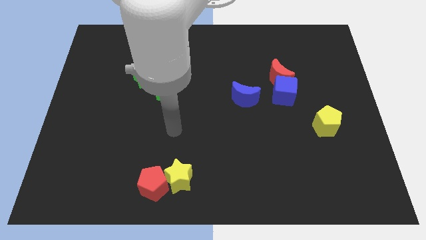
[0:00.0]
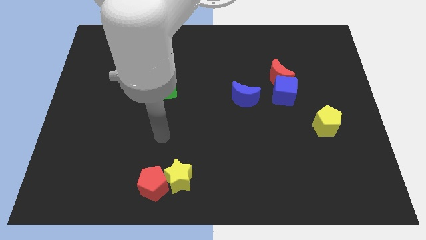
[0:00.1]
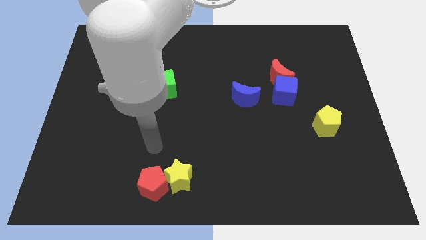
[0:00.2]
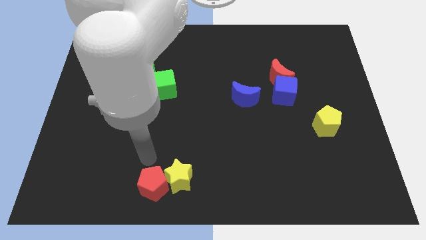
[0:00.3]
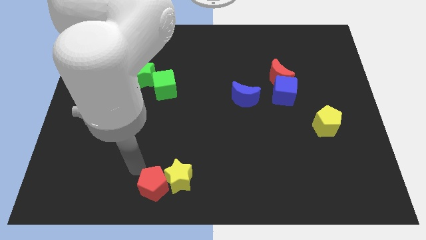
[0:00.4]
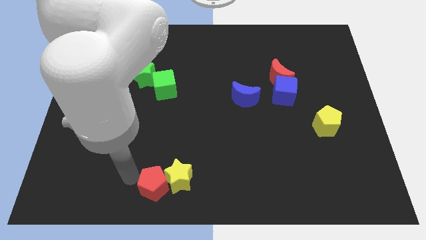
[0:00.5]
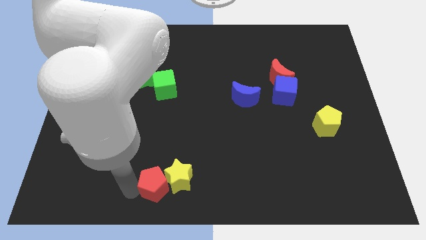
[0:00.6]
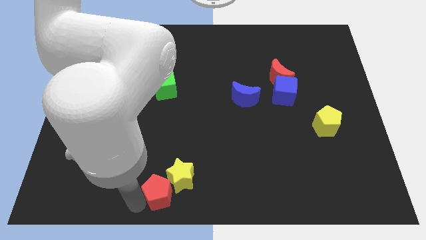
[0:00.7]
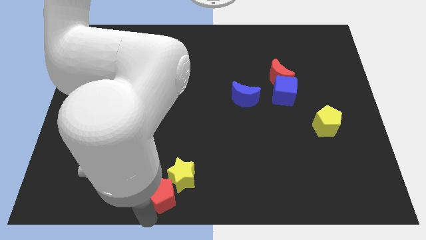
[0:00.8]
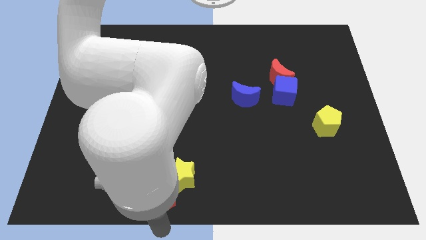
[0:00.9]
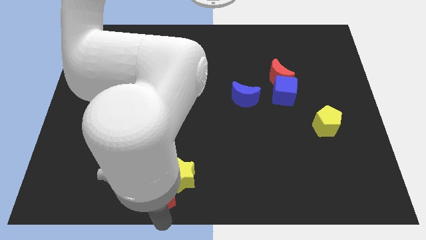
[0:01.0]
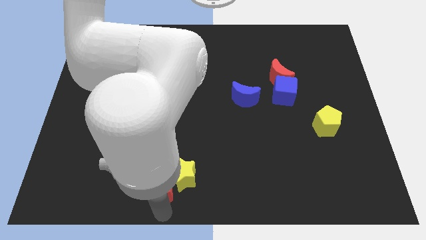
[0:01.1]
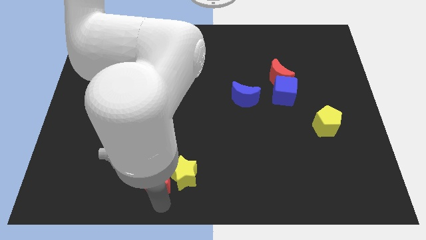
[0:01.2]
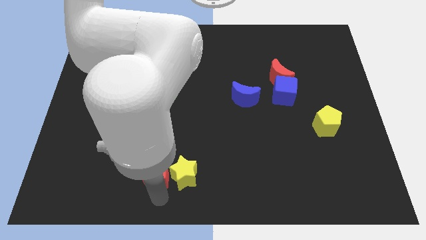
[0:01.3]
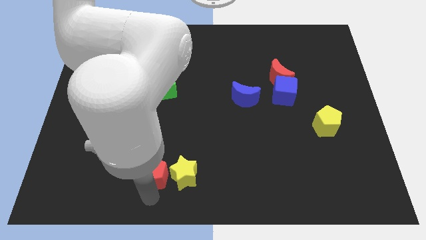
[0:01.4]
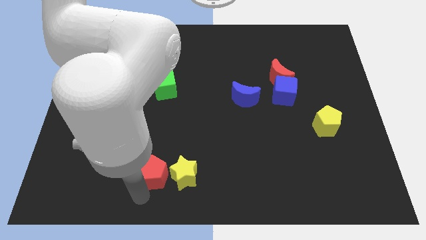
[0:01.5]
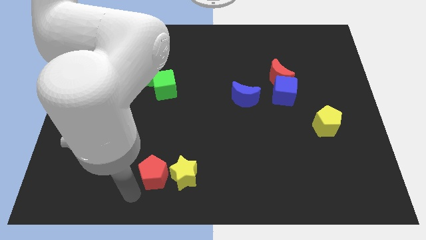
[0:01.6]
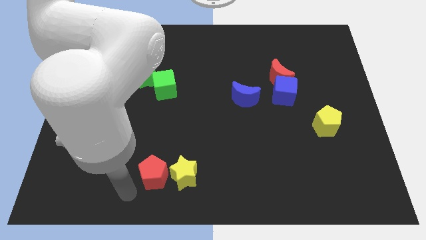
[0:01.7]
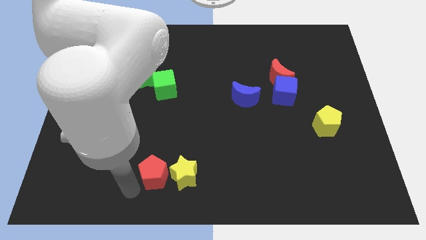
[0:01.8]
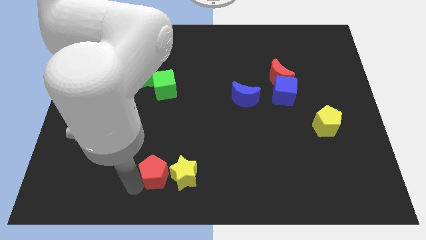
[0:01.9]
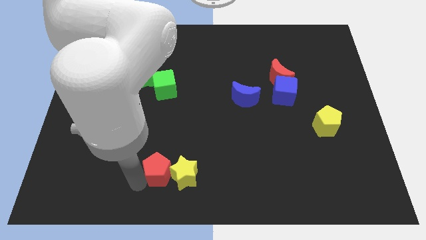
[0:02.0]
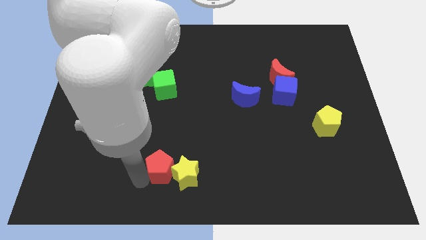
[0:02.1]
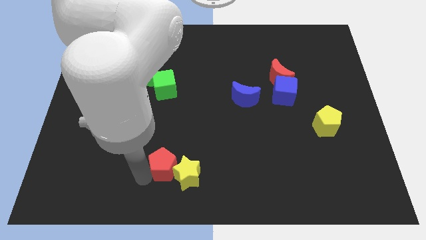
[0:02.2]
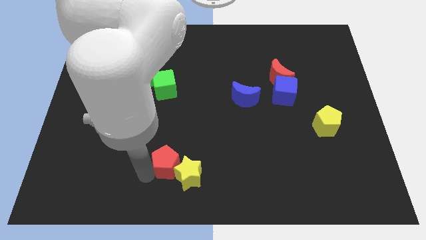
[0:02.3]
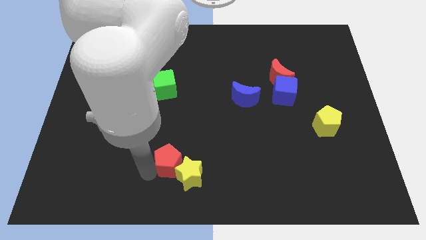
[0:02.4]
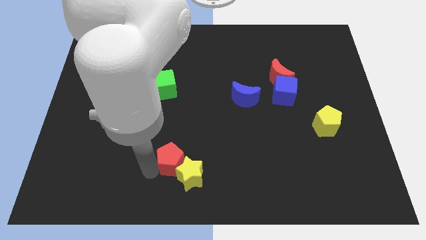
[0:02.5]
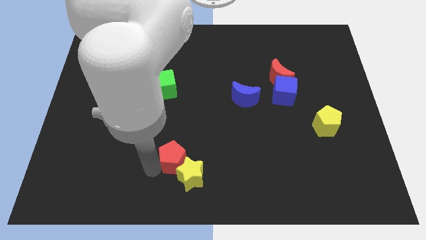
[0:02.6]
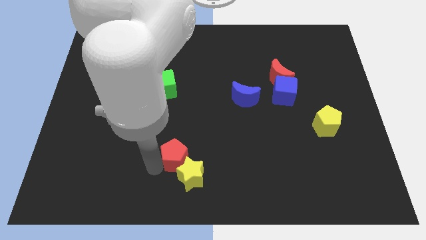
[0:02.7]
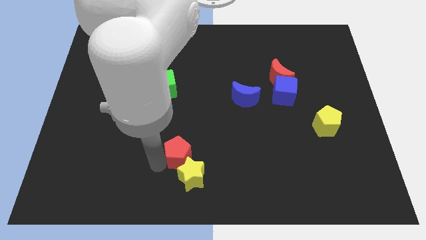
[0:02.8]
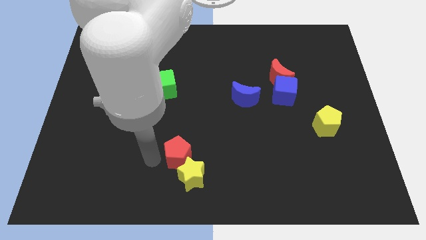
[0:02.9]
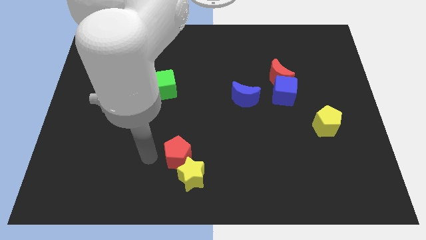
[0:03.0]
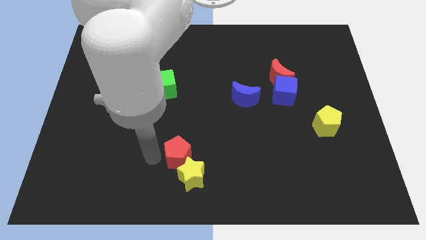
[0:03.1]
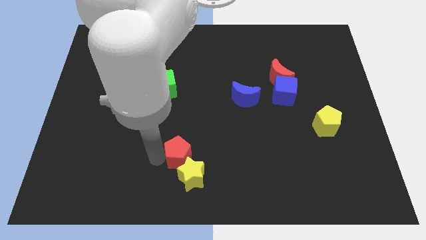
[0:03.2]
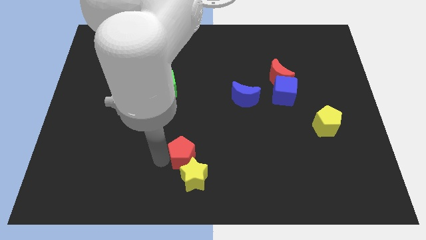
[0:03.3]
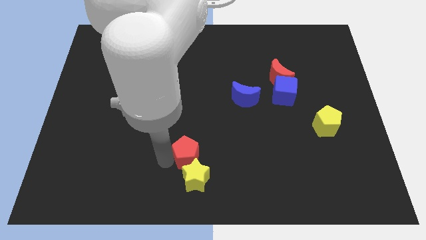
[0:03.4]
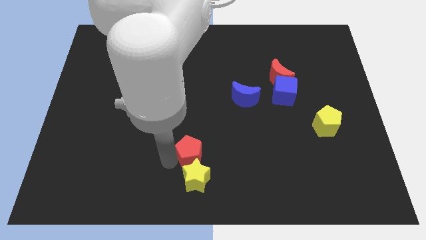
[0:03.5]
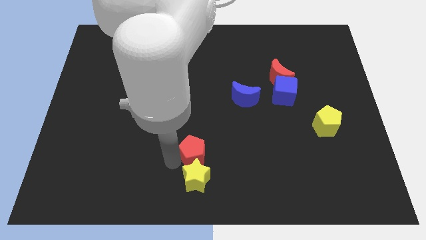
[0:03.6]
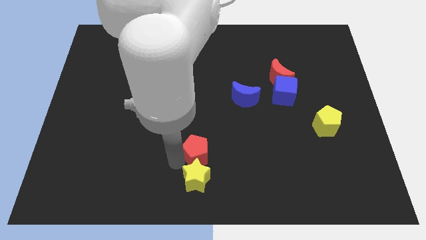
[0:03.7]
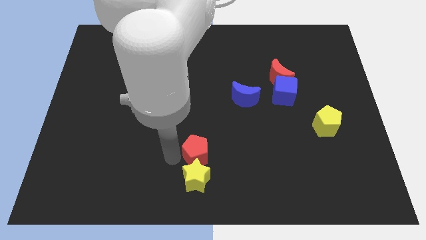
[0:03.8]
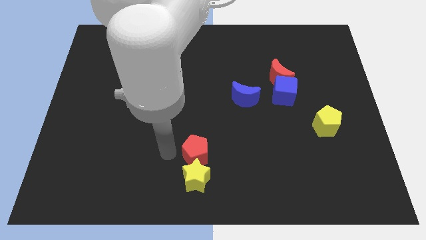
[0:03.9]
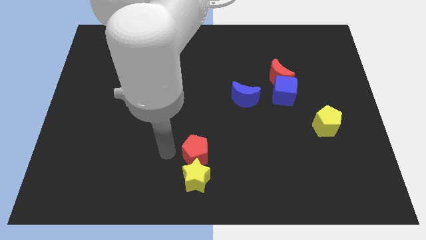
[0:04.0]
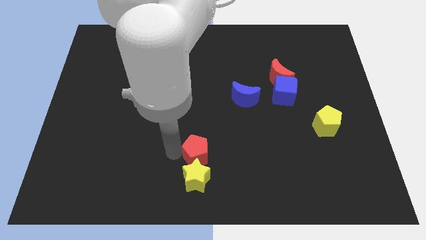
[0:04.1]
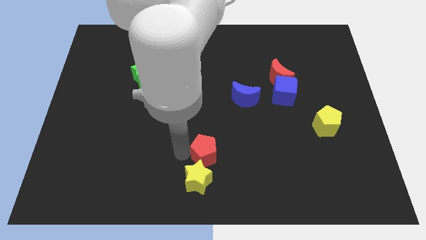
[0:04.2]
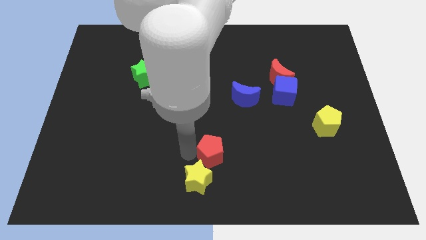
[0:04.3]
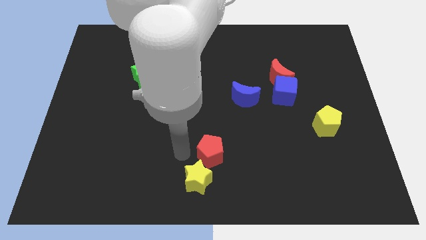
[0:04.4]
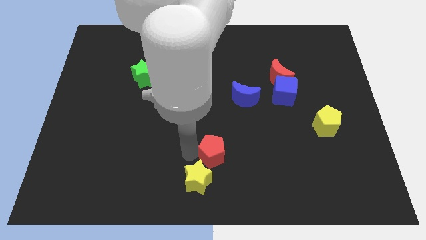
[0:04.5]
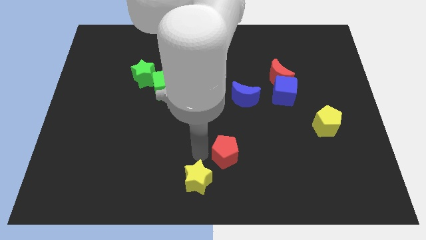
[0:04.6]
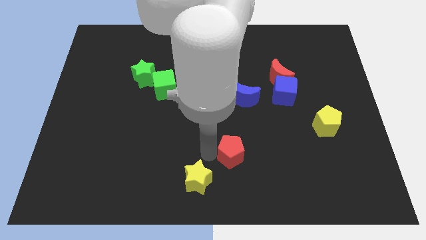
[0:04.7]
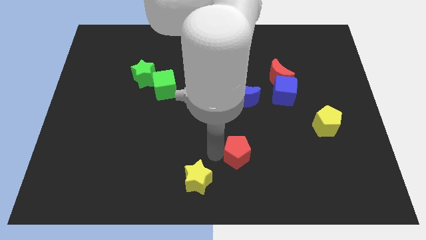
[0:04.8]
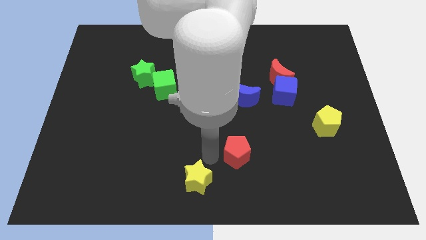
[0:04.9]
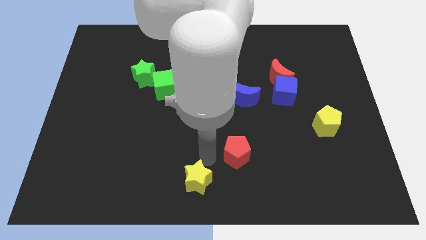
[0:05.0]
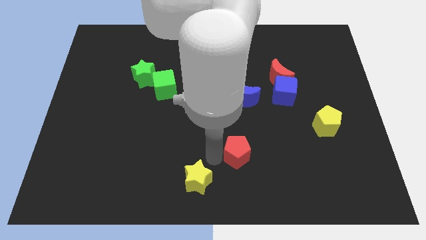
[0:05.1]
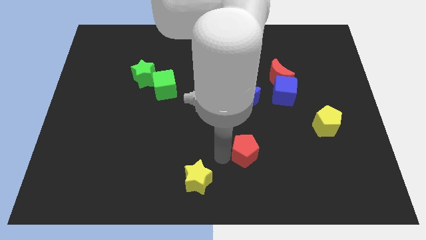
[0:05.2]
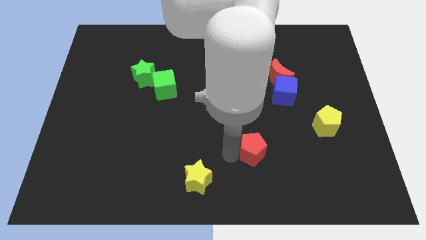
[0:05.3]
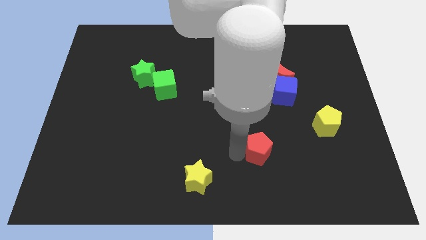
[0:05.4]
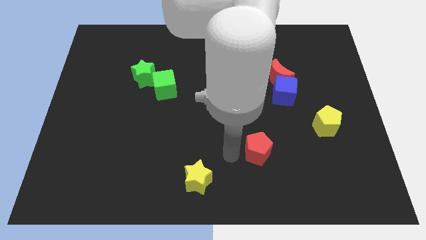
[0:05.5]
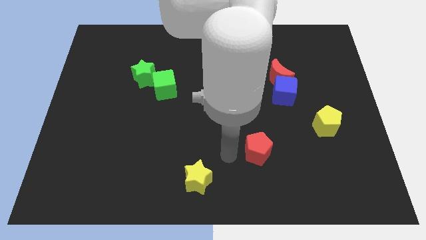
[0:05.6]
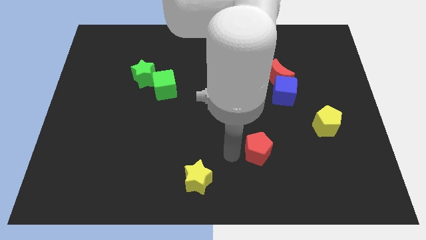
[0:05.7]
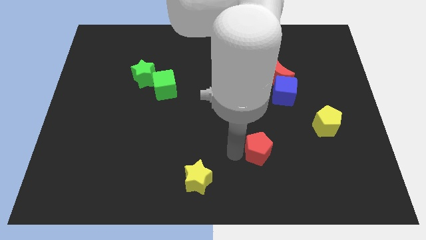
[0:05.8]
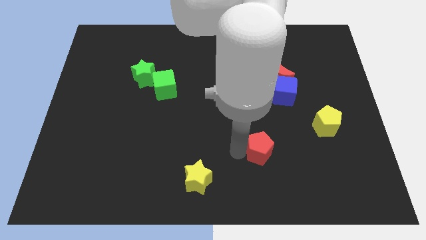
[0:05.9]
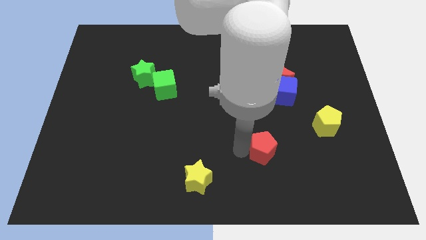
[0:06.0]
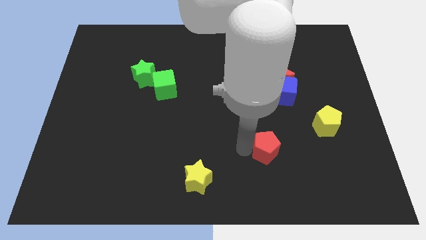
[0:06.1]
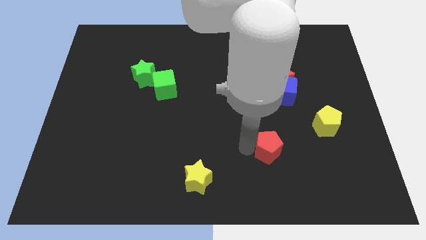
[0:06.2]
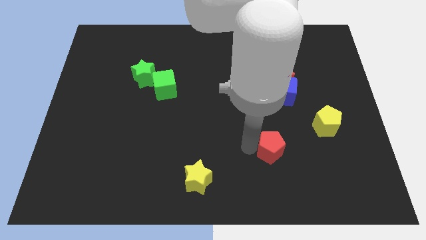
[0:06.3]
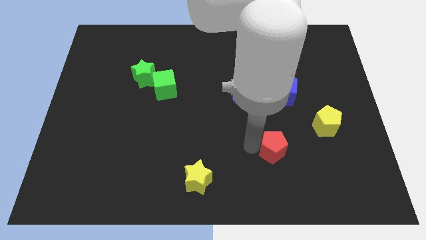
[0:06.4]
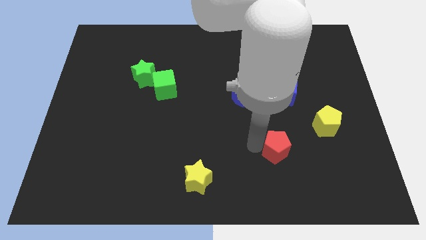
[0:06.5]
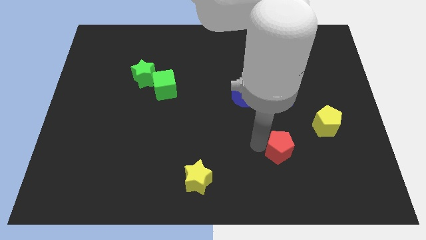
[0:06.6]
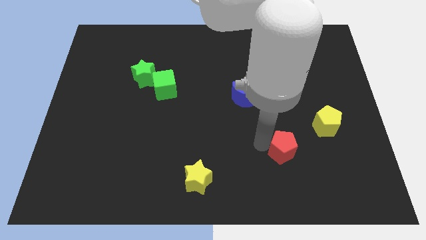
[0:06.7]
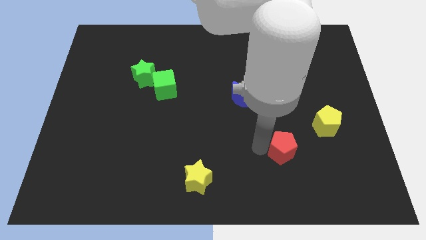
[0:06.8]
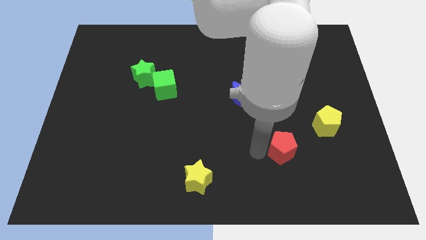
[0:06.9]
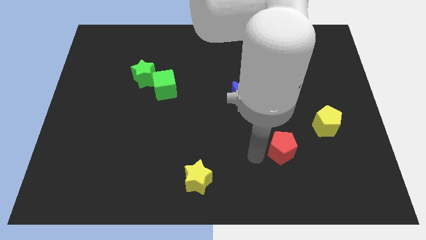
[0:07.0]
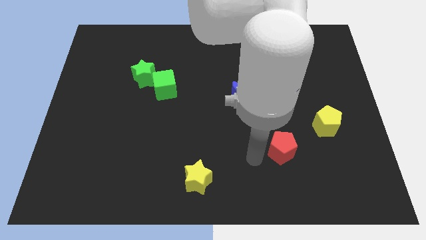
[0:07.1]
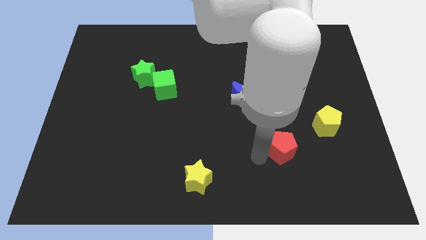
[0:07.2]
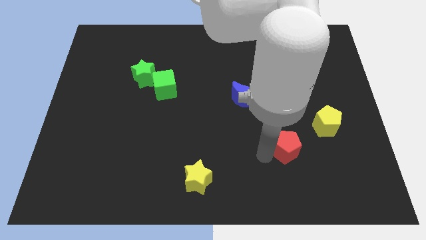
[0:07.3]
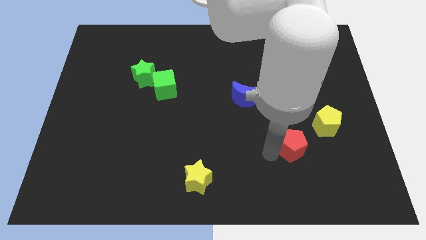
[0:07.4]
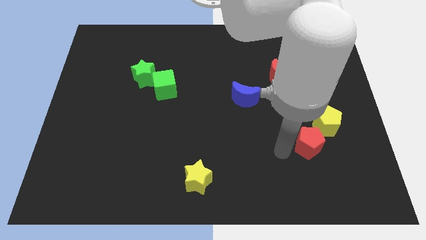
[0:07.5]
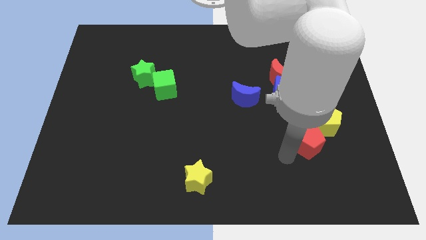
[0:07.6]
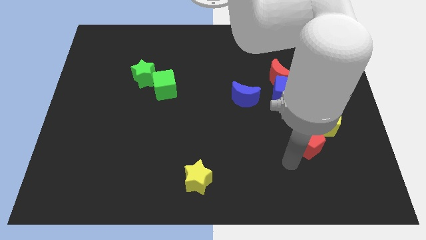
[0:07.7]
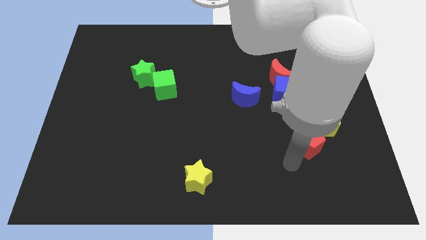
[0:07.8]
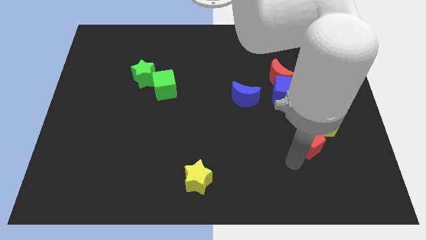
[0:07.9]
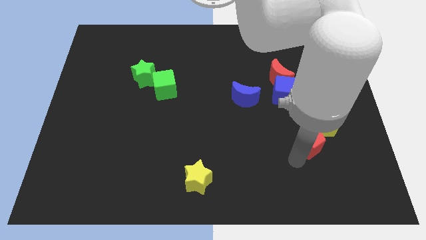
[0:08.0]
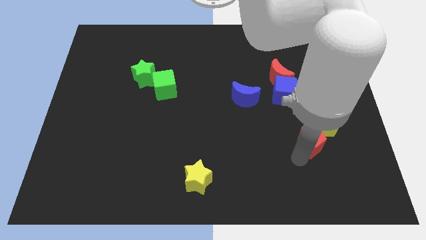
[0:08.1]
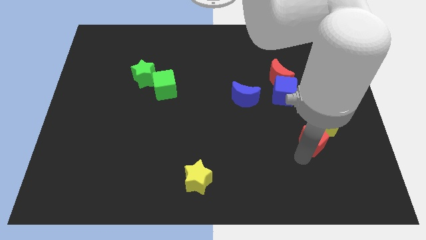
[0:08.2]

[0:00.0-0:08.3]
move the red pentagon next to the yellow pentagon
